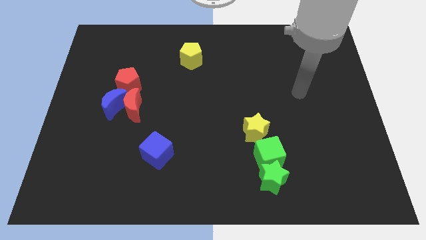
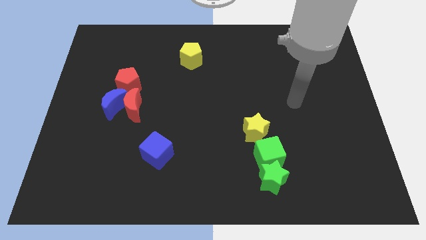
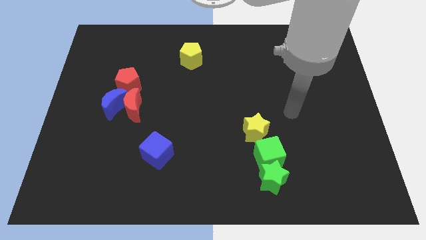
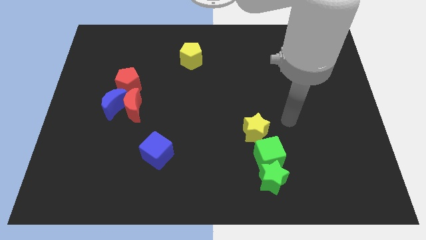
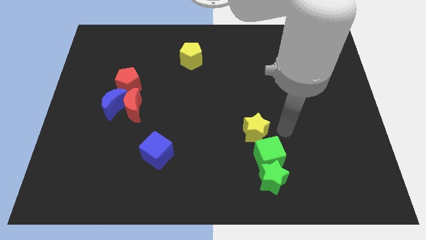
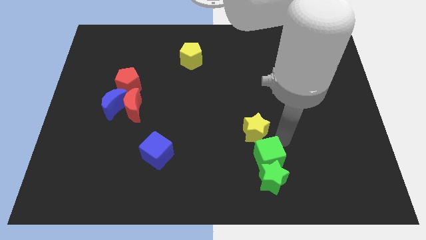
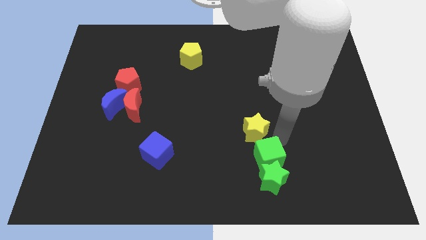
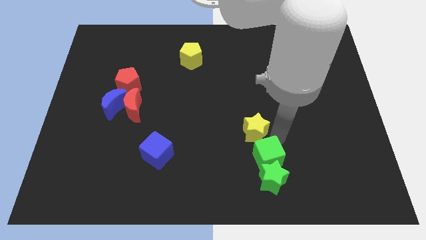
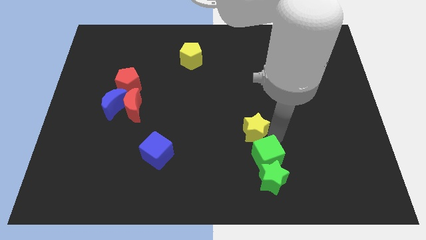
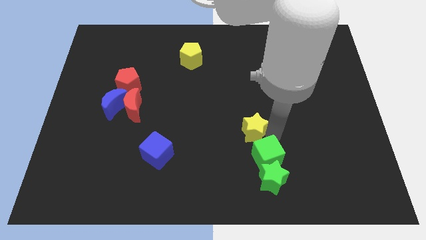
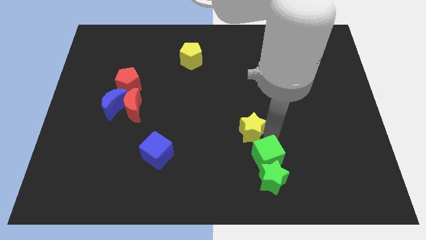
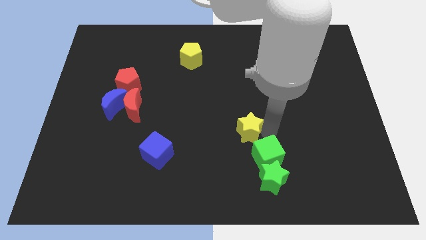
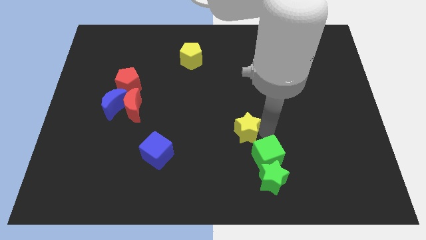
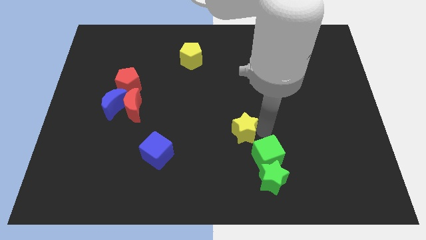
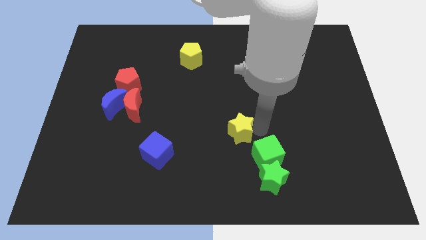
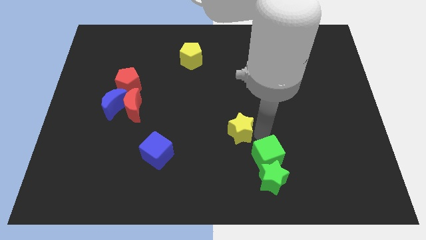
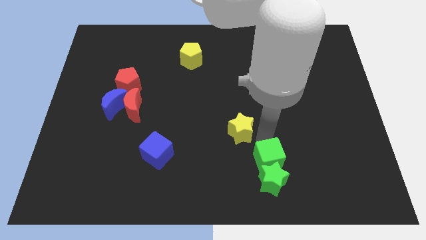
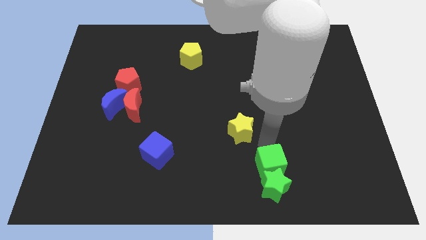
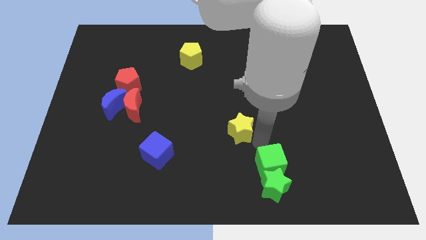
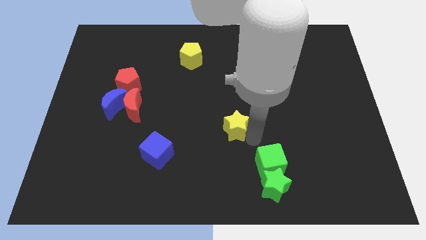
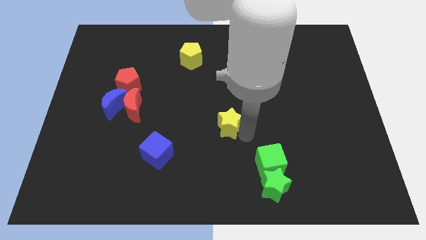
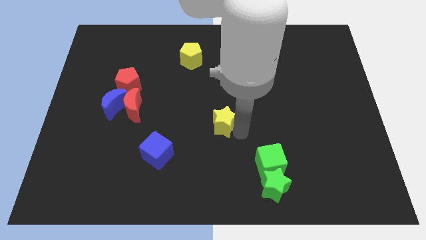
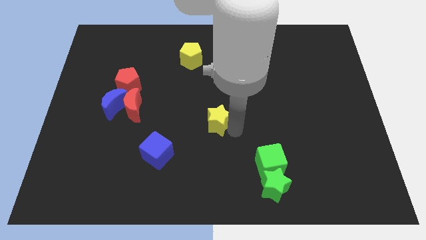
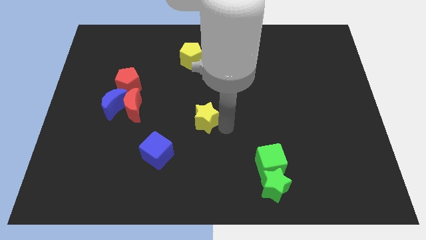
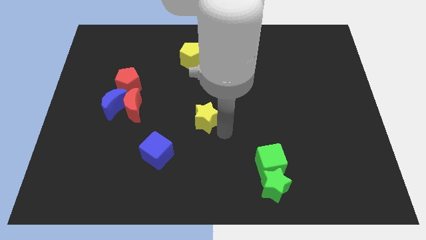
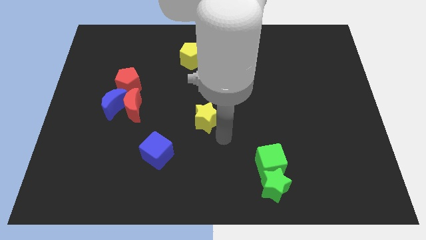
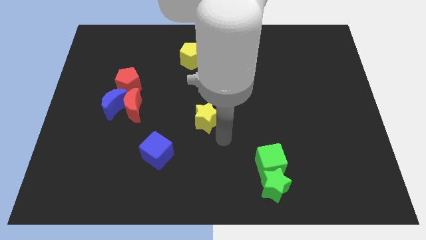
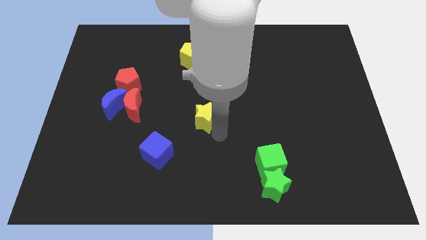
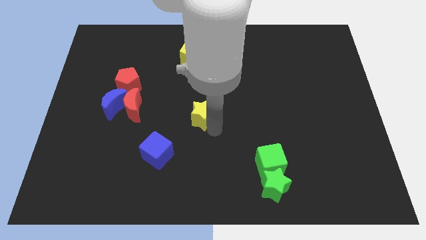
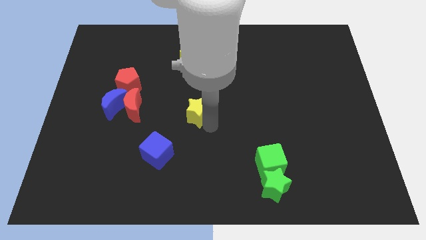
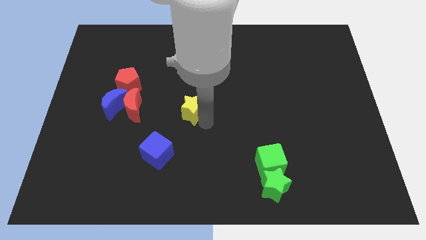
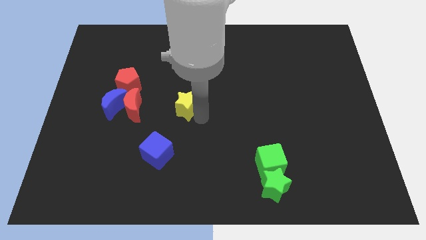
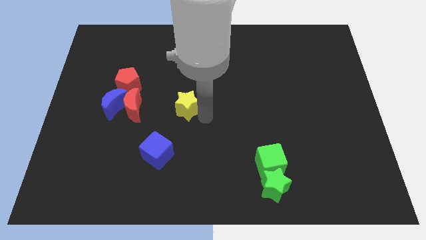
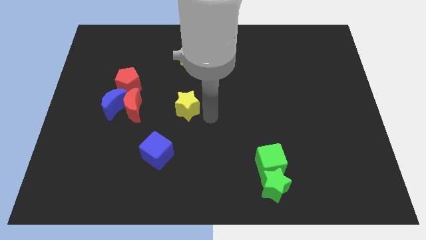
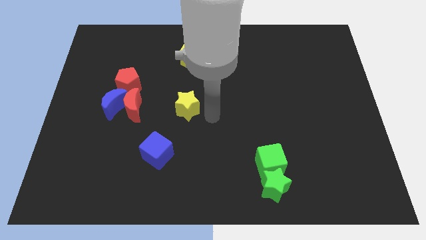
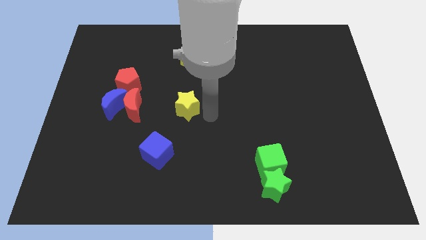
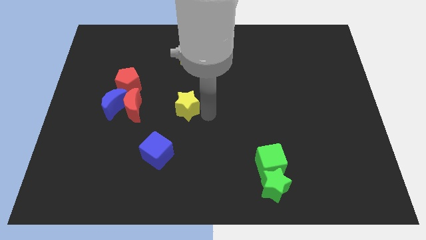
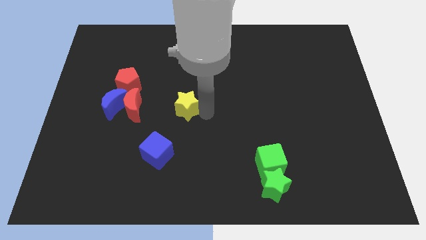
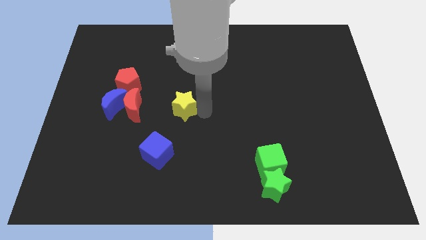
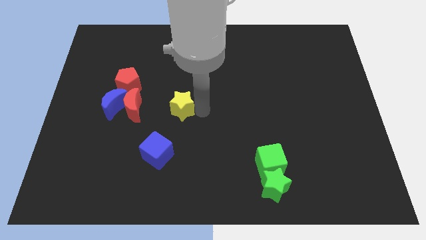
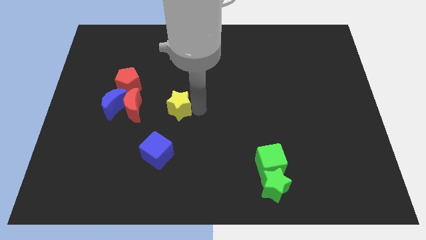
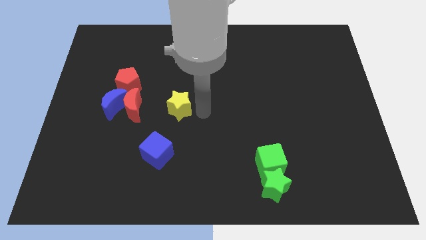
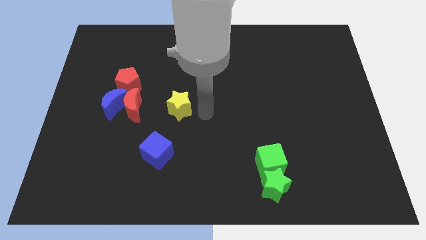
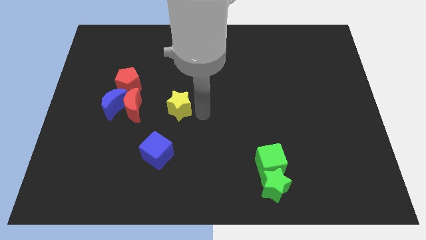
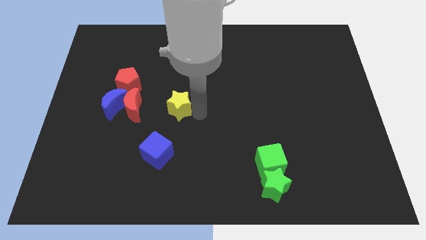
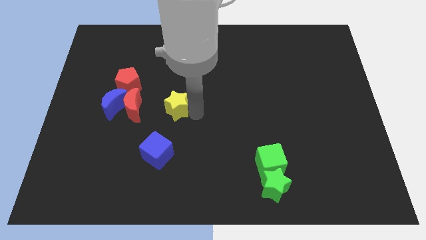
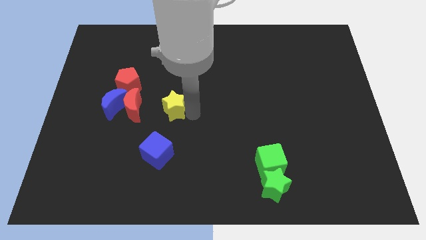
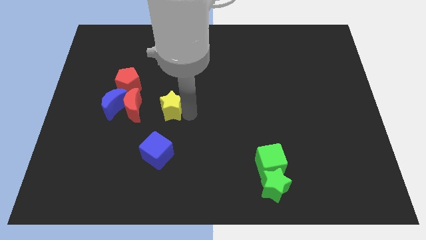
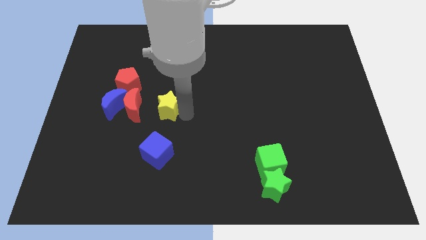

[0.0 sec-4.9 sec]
push the yellow star to the bottom right of the red pentagon

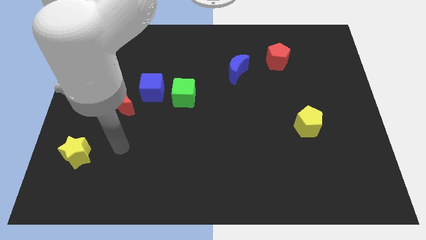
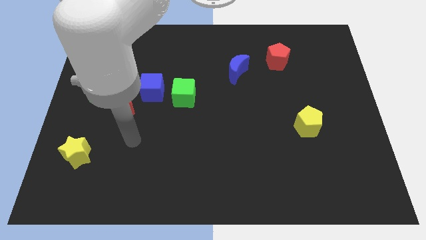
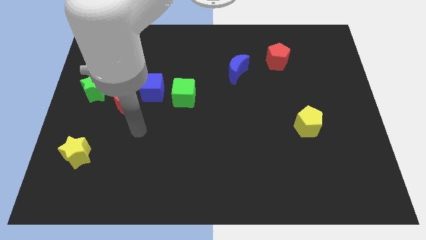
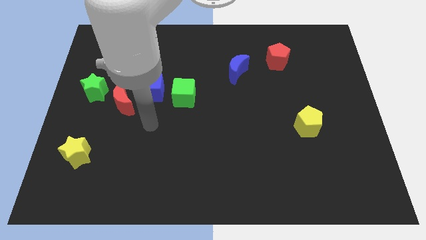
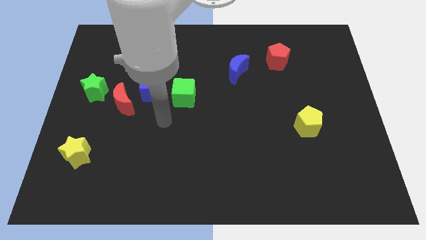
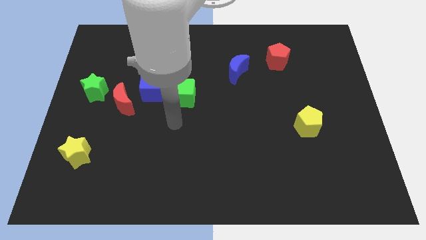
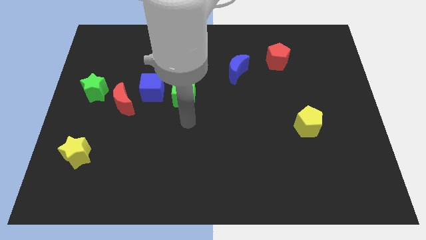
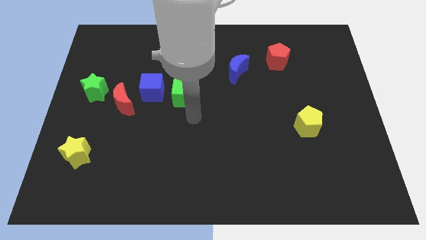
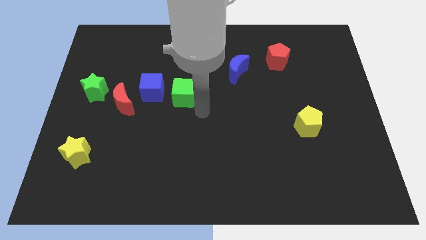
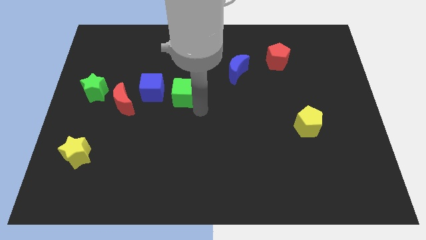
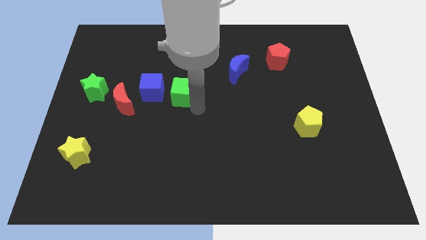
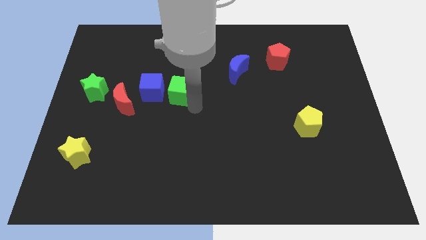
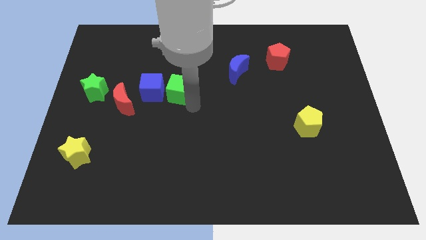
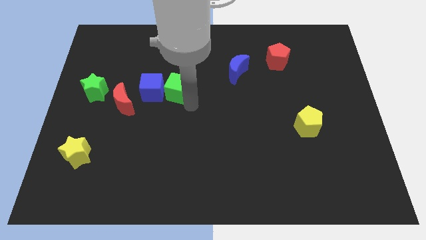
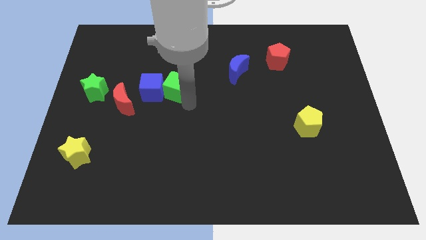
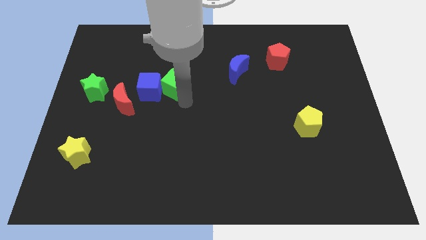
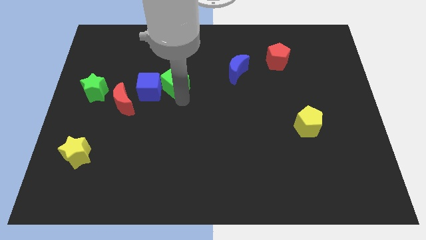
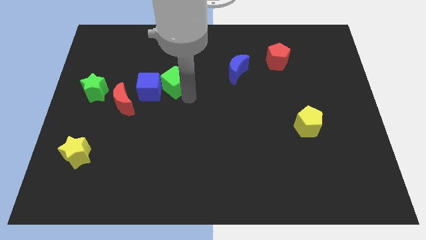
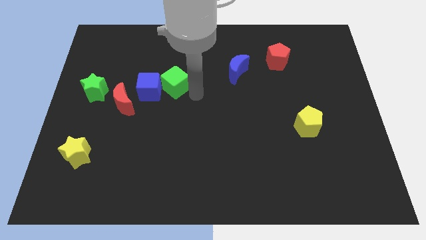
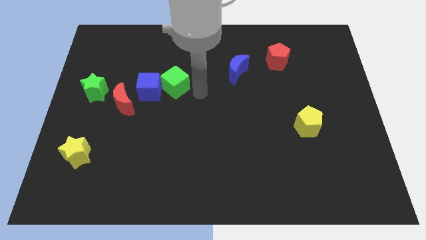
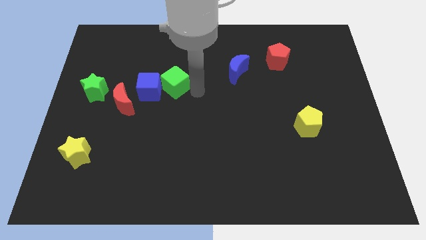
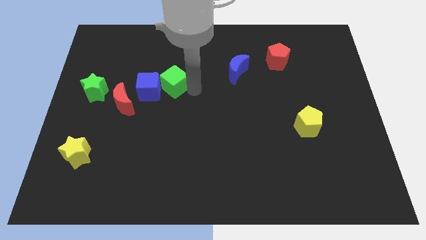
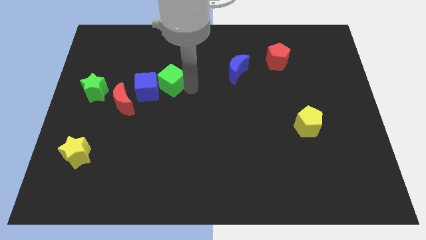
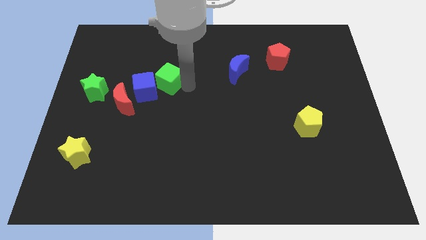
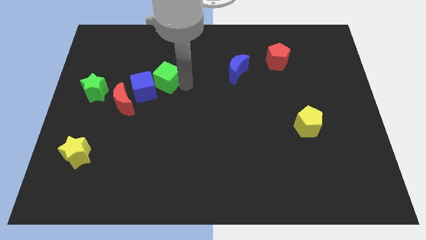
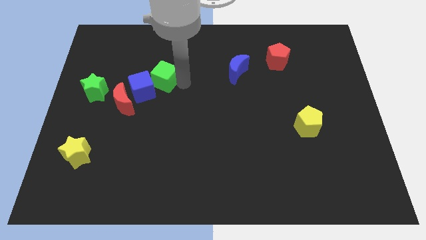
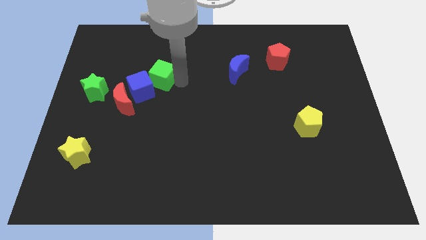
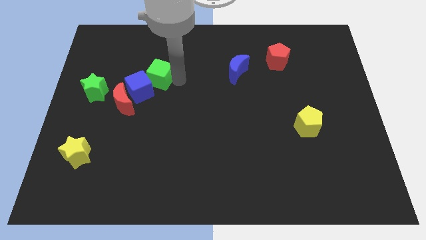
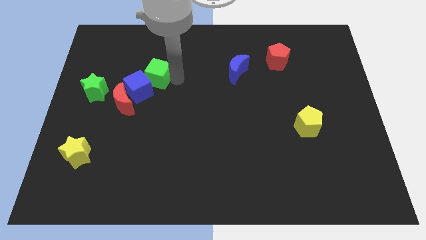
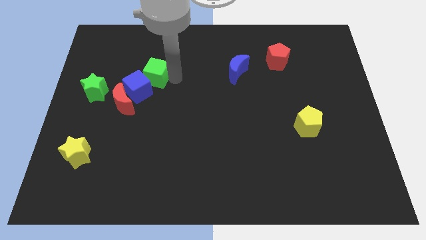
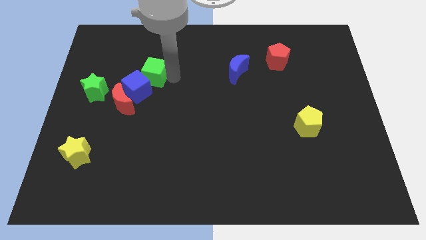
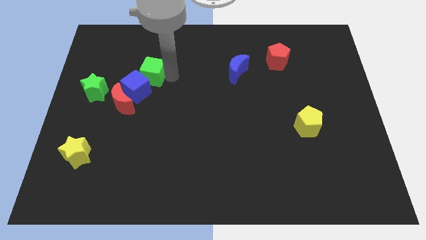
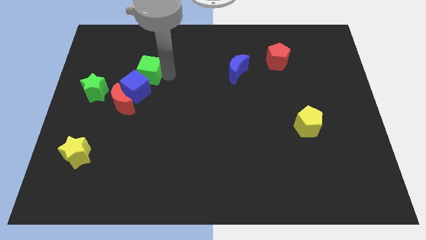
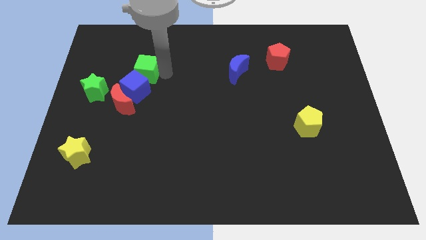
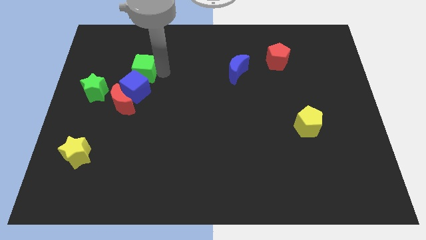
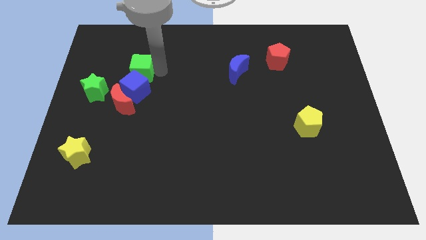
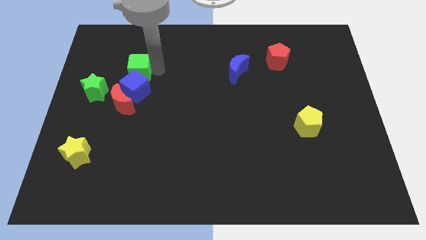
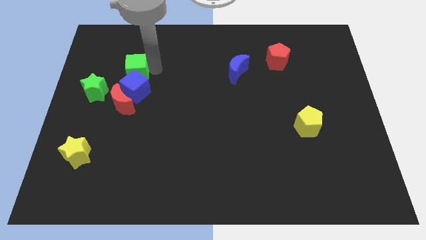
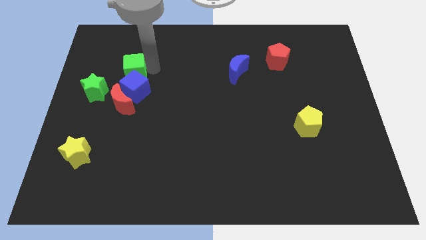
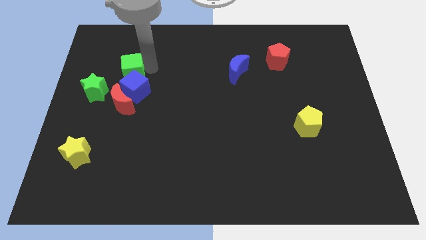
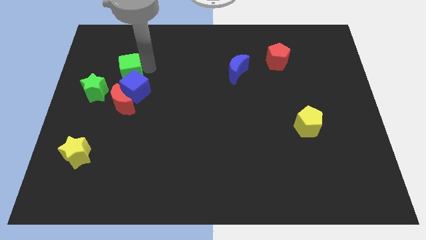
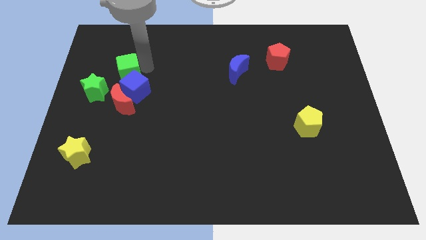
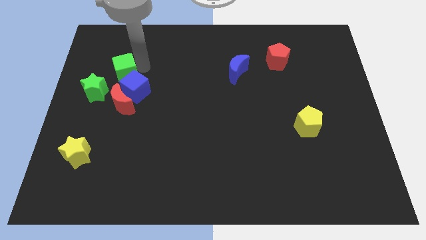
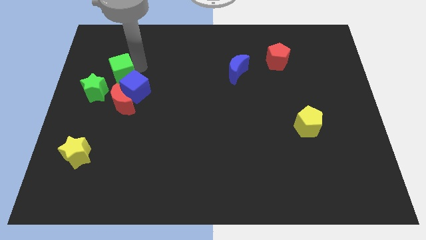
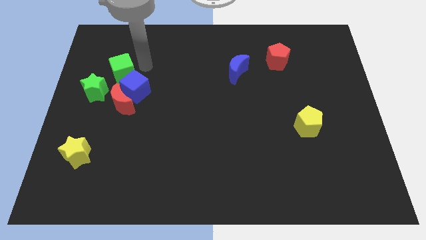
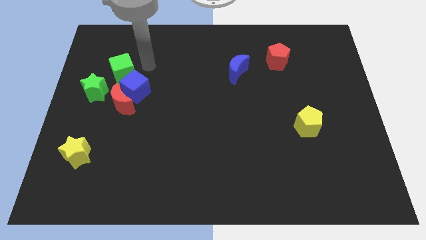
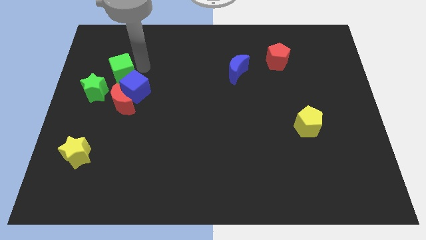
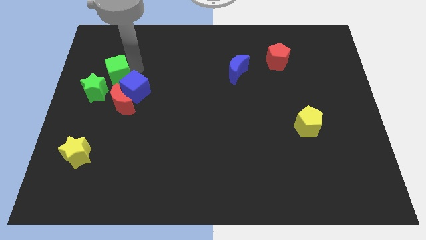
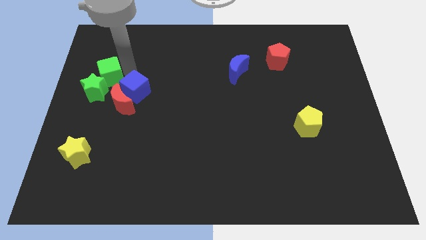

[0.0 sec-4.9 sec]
slide the green cube to the top left side of the red moon
